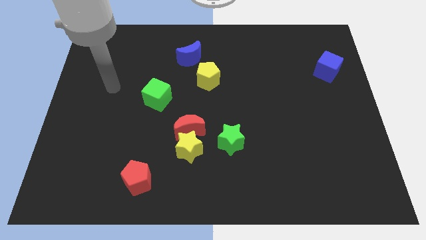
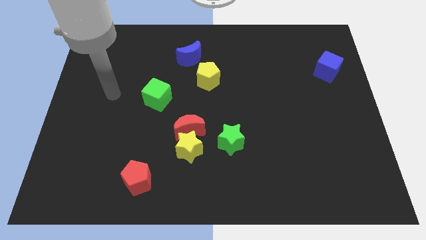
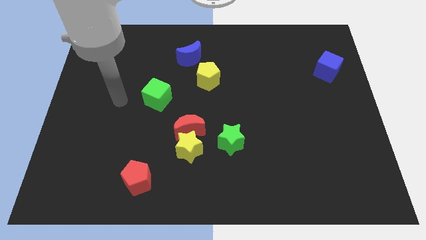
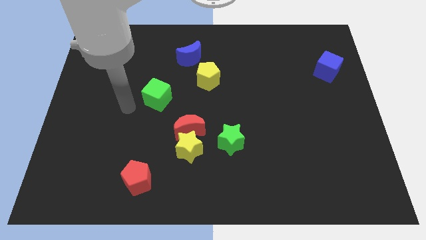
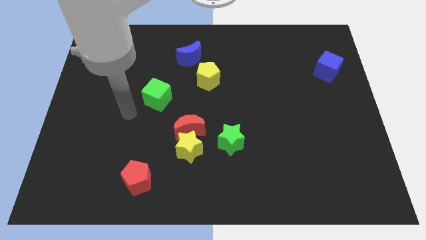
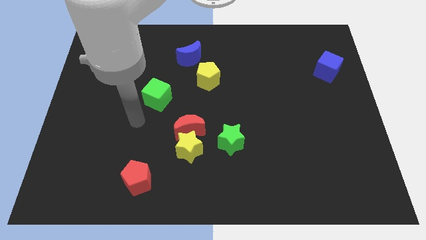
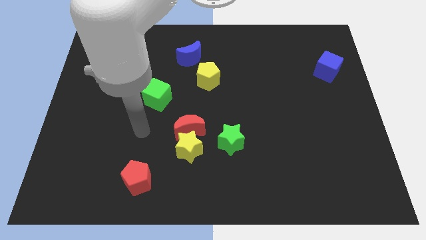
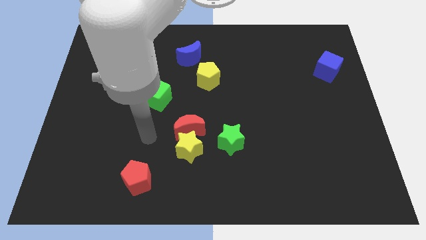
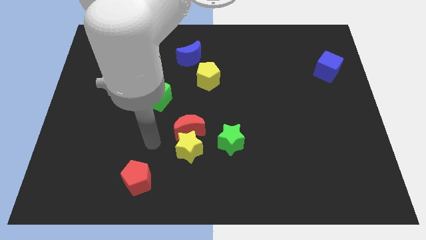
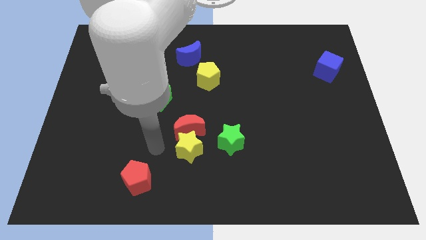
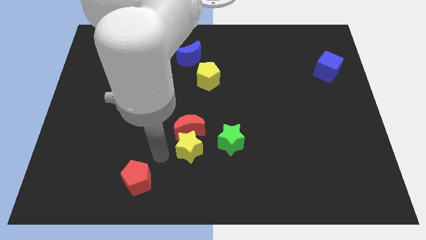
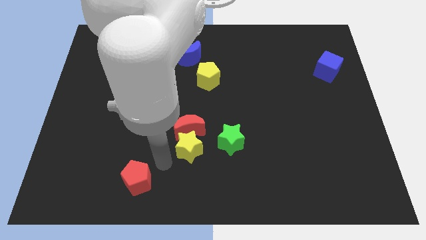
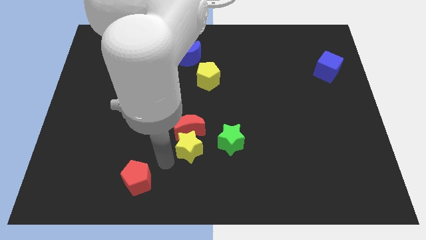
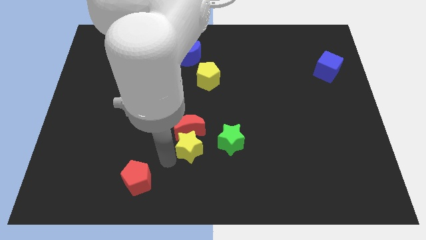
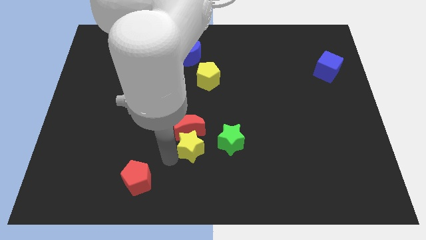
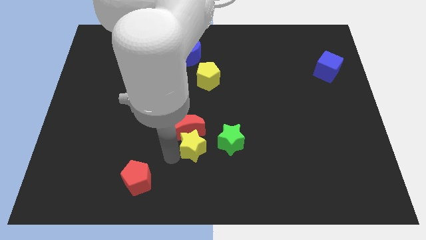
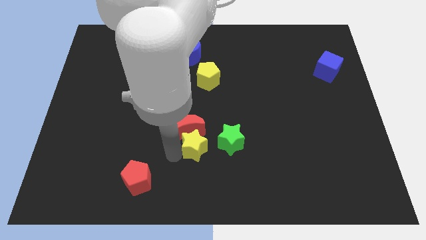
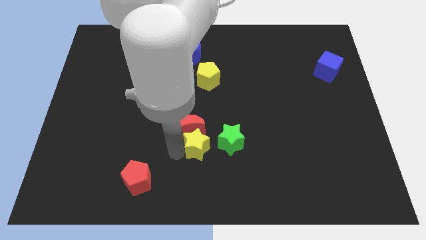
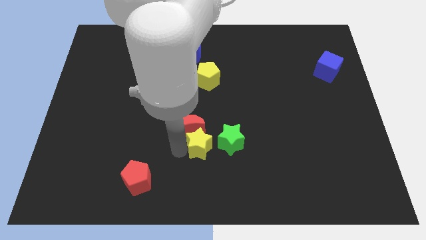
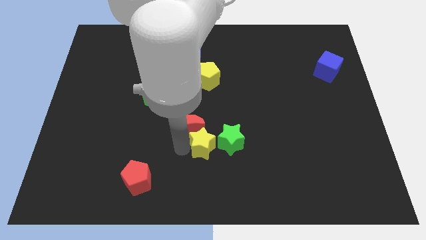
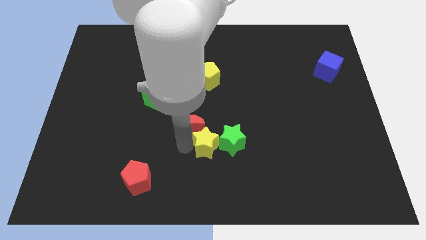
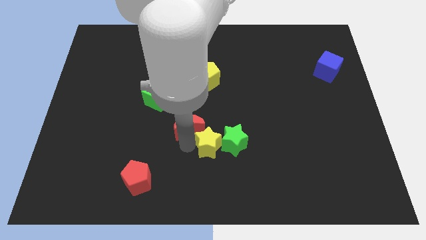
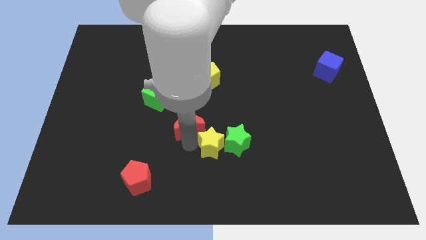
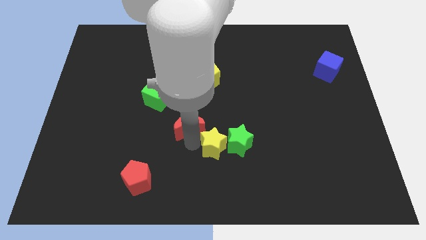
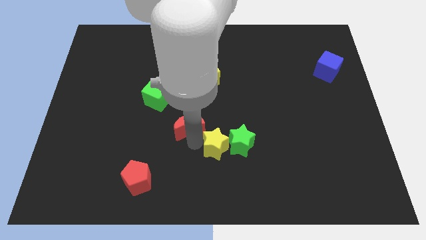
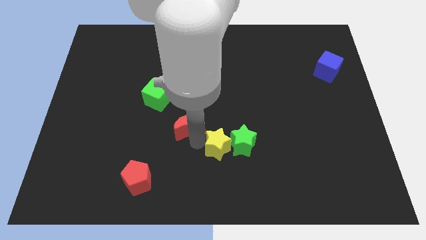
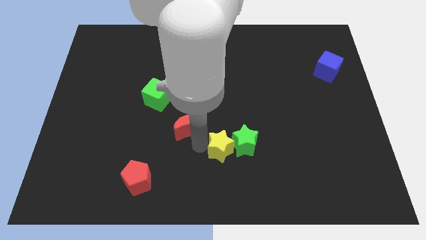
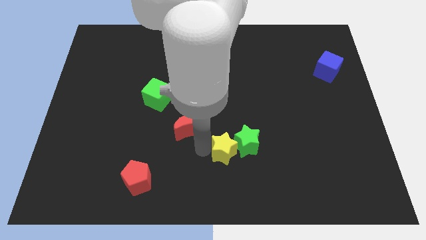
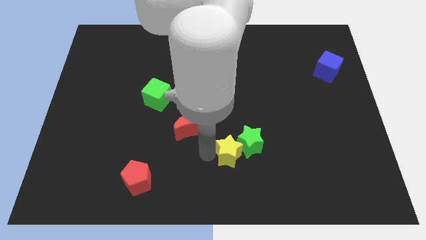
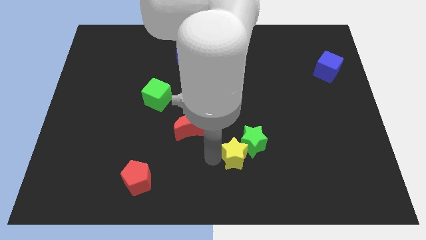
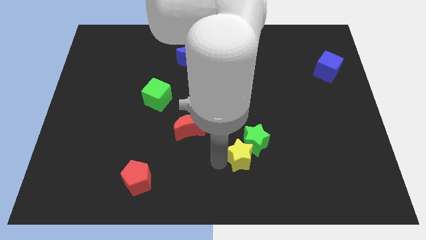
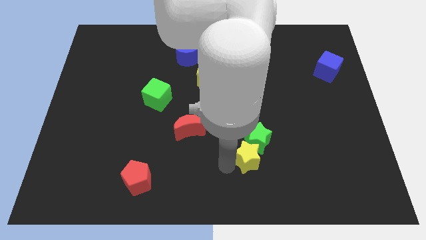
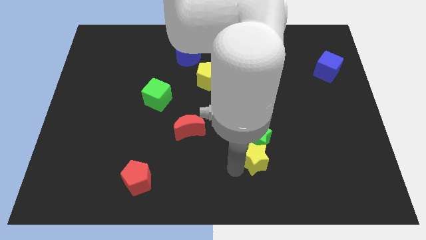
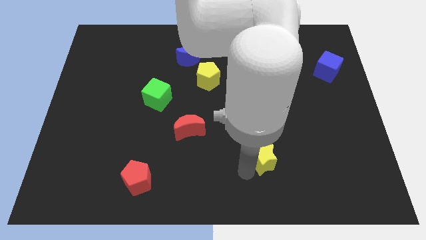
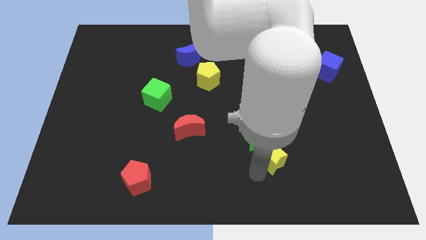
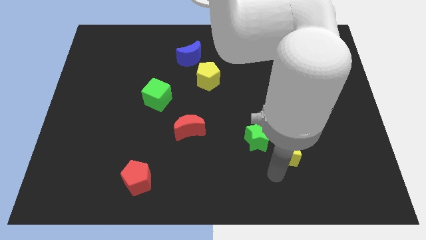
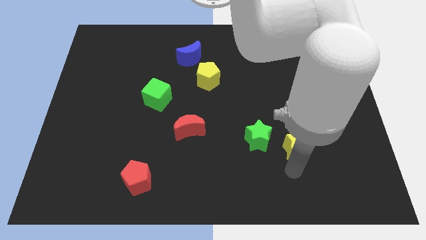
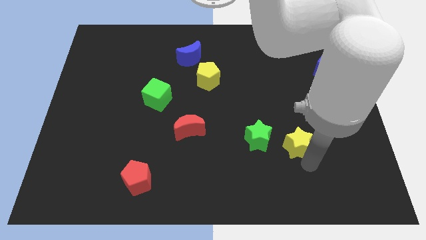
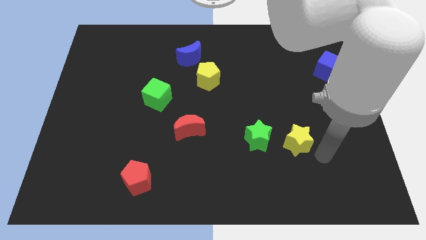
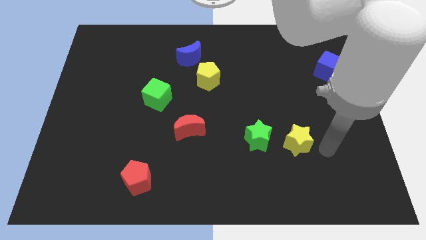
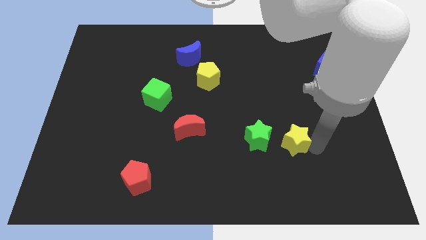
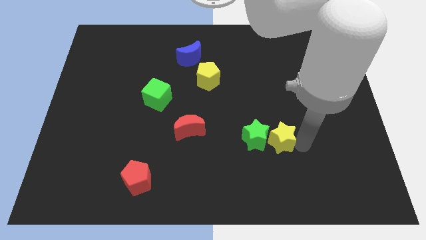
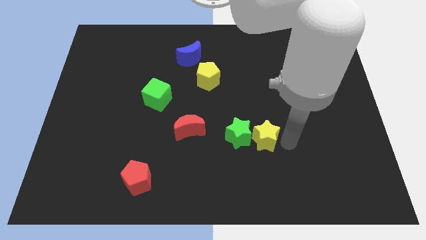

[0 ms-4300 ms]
slide the yellow star somewhat diagonally upwards and right

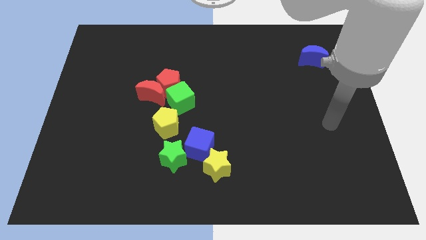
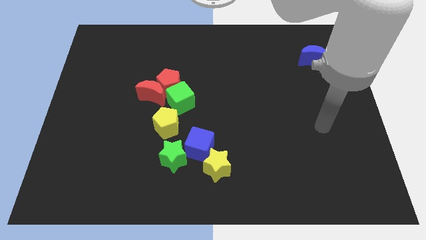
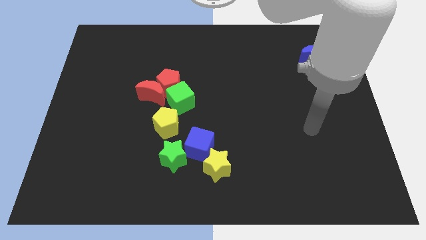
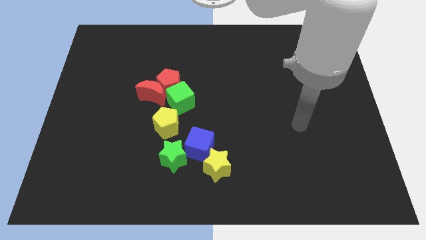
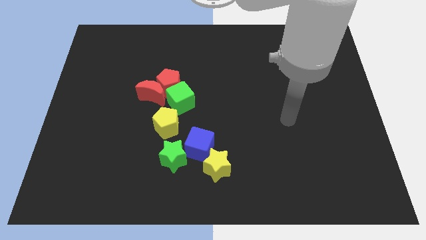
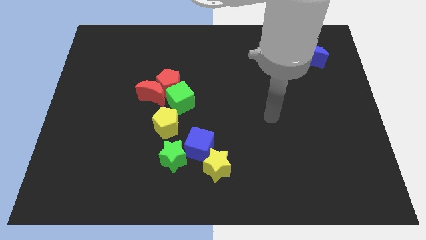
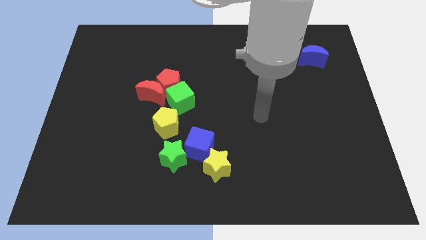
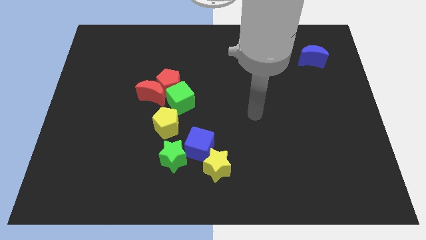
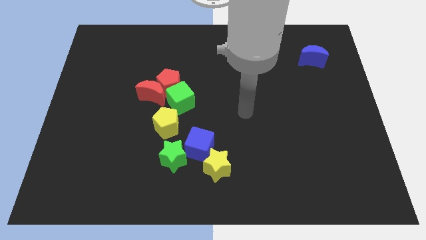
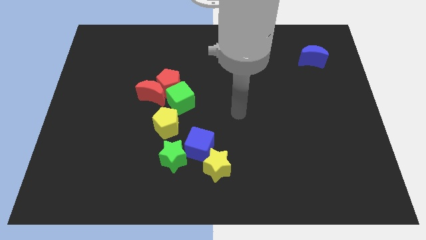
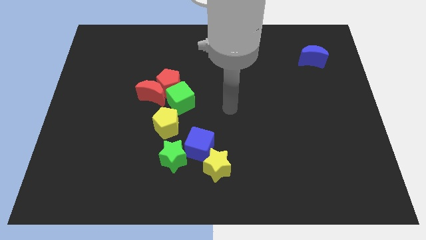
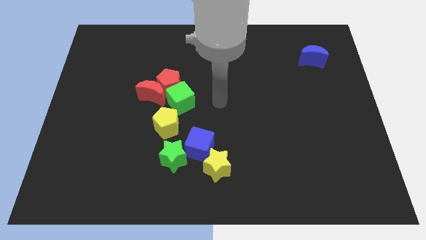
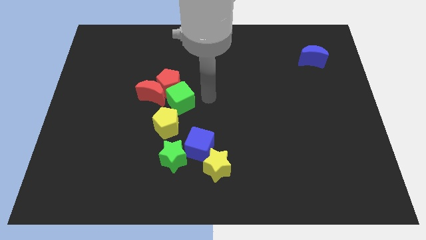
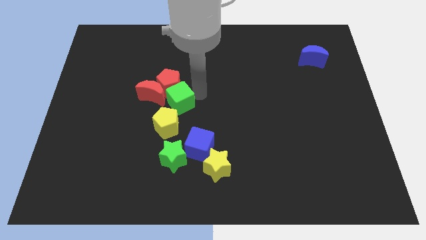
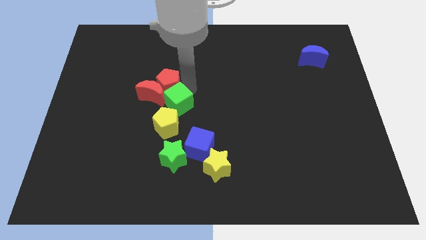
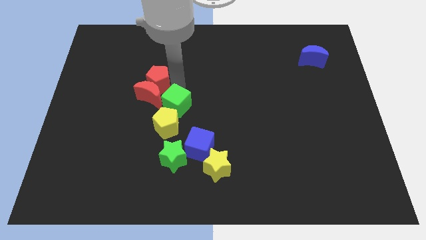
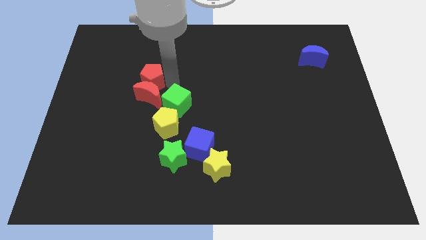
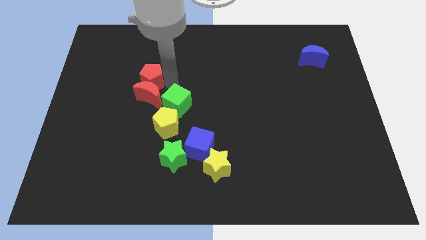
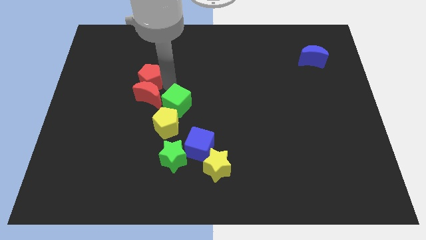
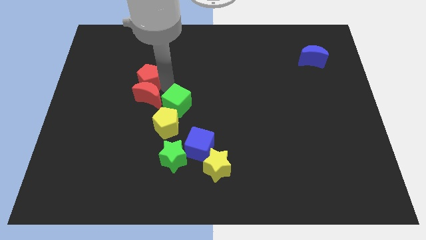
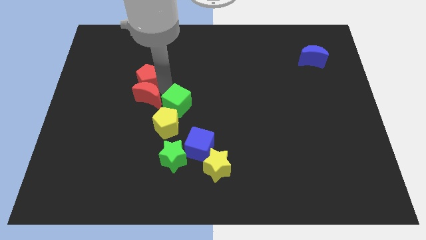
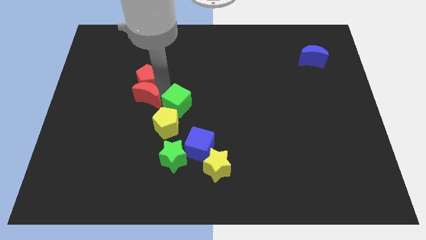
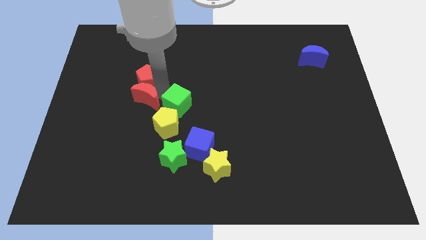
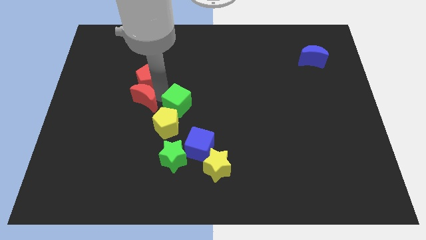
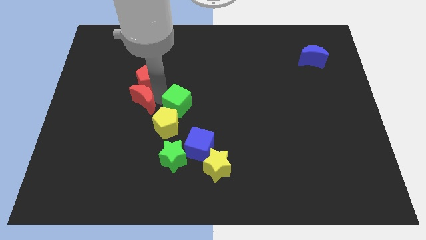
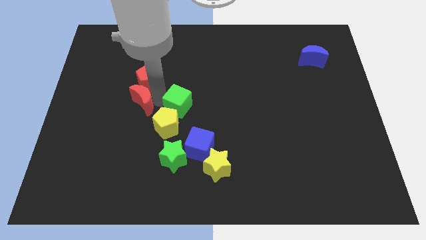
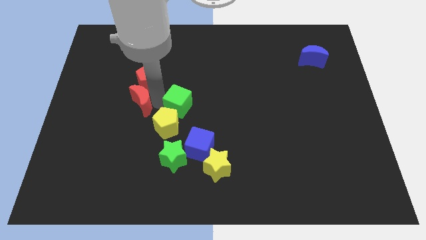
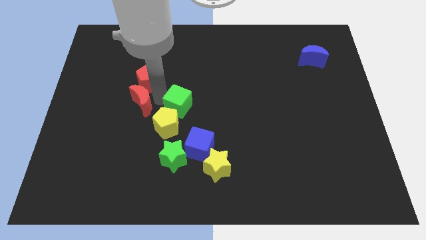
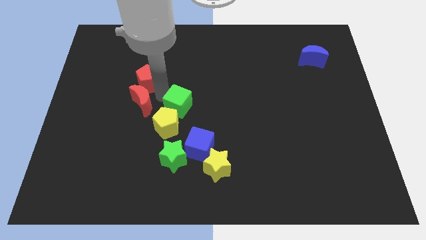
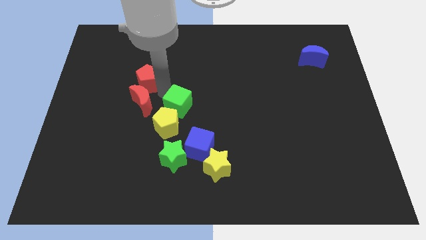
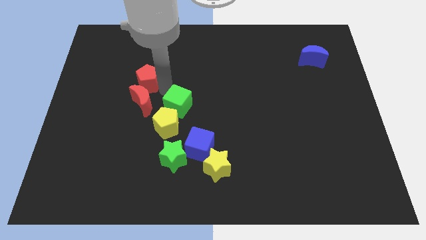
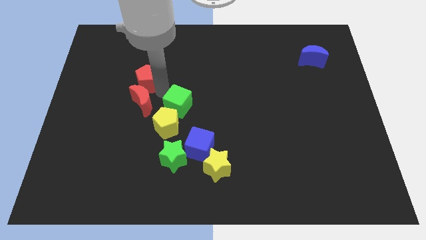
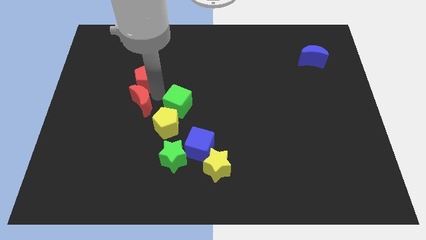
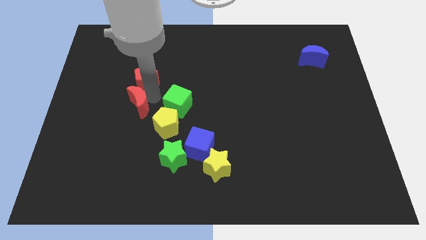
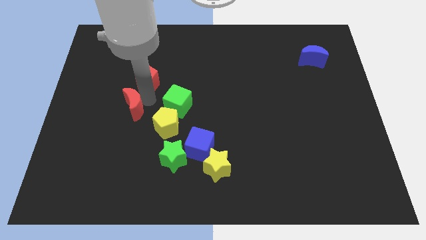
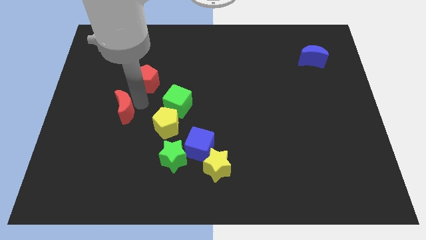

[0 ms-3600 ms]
slightly move the red moon downwards and then to the left

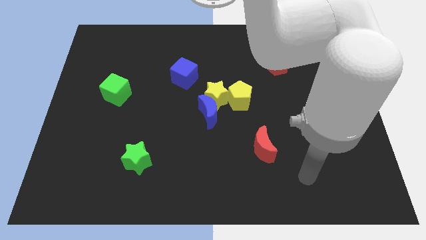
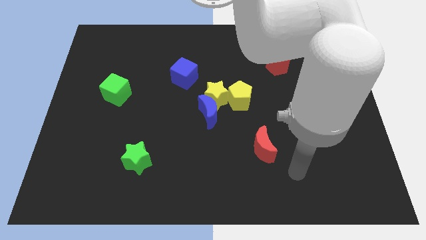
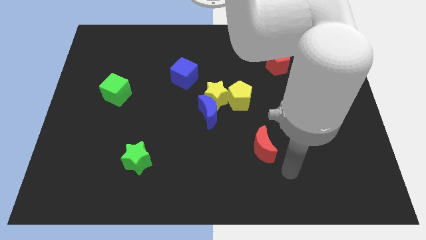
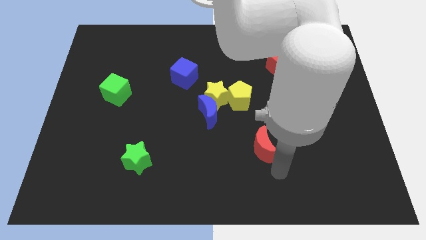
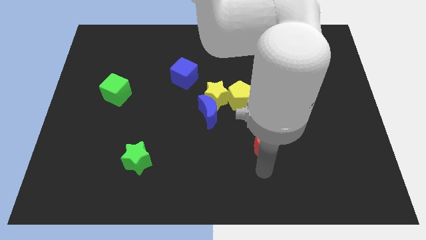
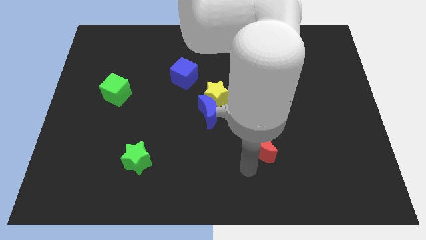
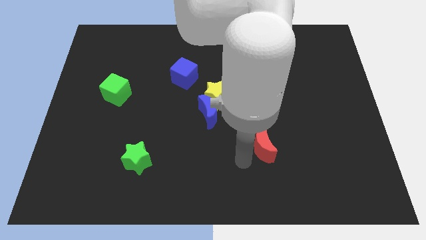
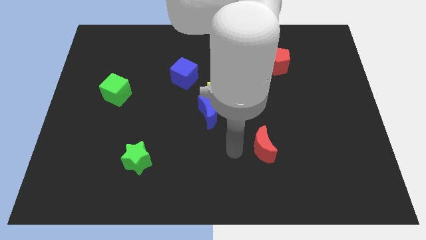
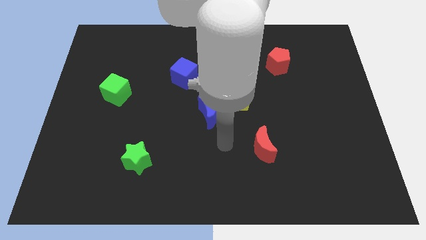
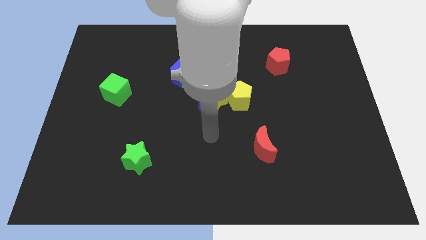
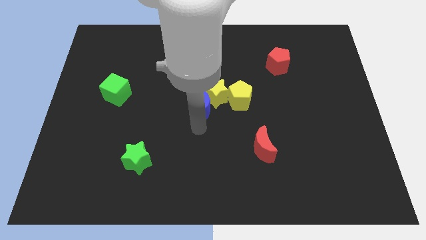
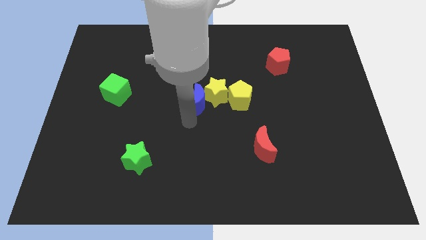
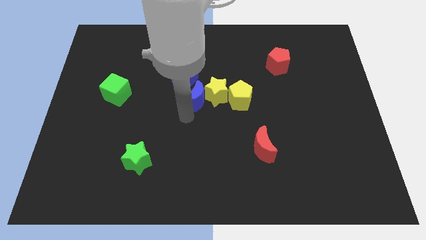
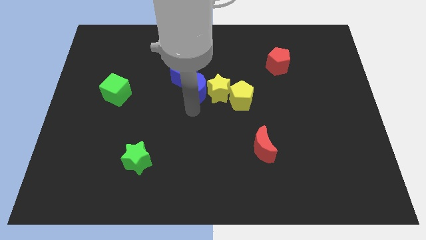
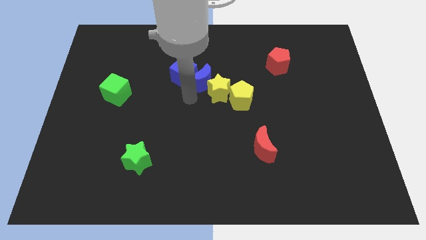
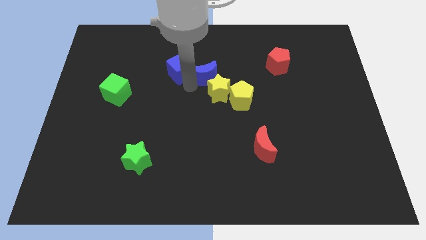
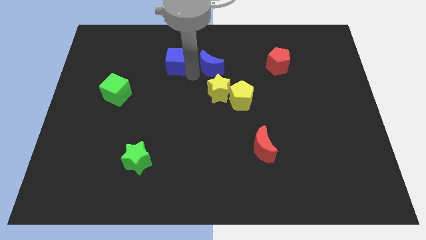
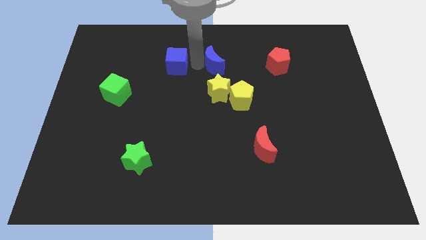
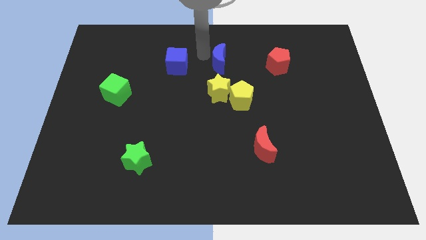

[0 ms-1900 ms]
move the blue moon diagonally upwards and right somewhat
